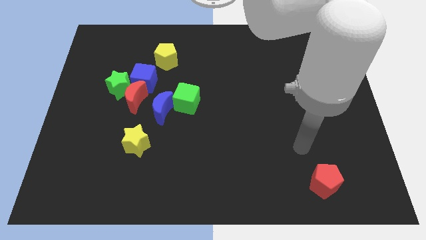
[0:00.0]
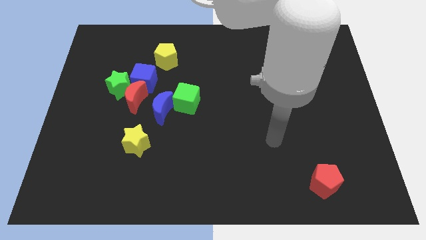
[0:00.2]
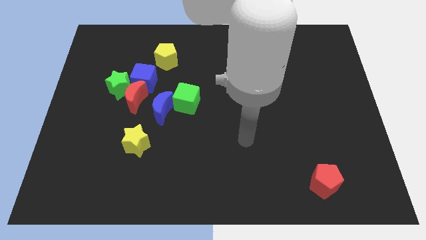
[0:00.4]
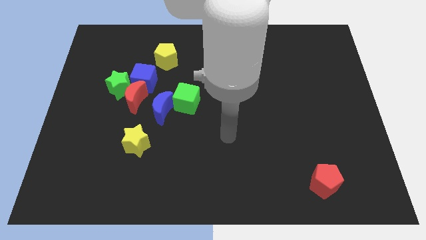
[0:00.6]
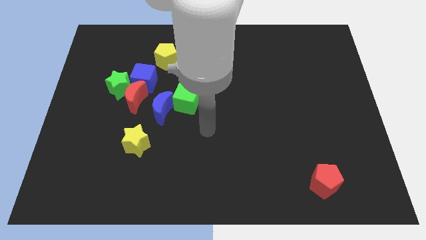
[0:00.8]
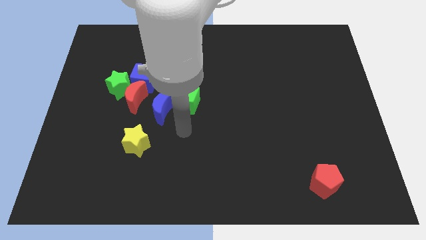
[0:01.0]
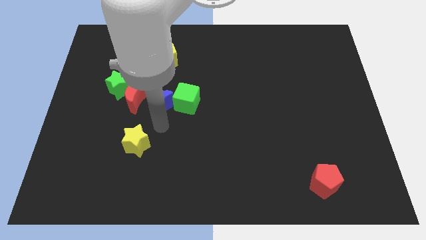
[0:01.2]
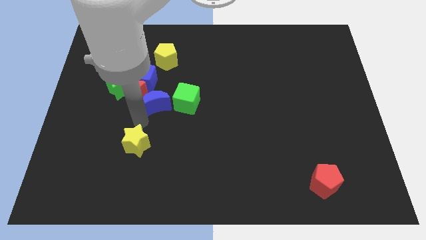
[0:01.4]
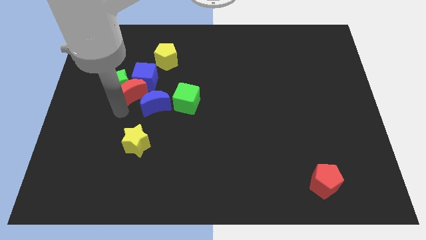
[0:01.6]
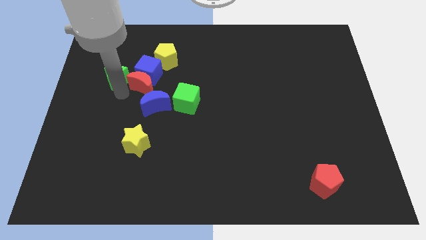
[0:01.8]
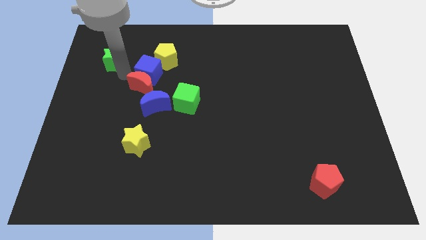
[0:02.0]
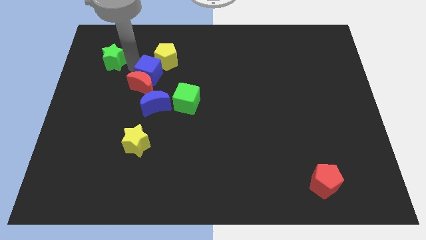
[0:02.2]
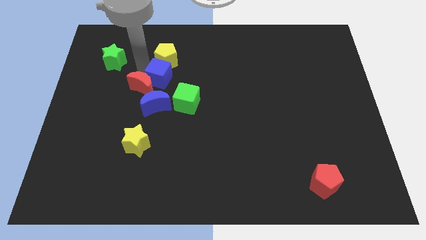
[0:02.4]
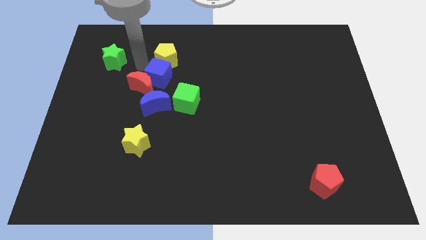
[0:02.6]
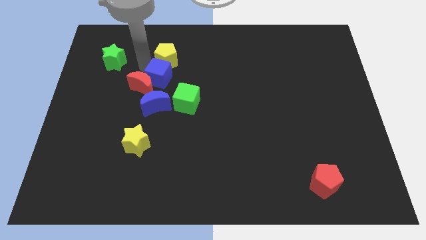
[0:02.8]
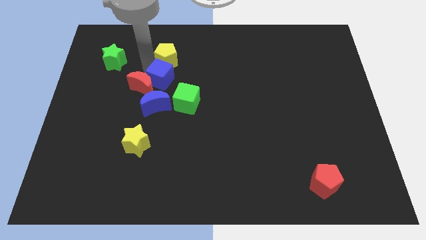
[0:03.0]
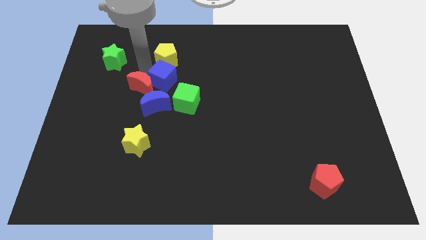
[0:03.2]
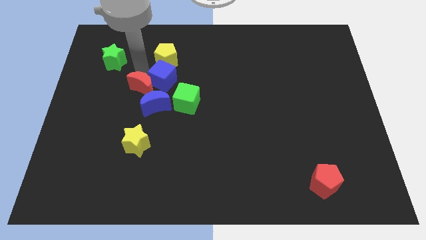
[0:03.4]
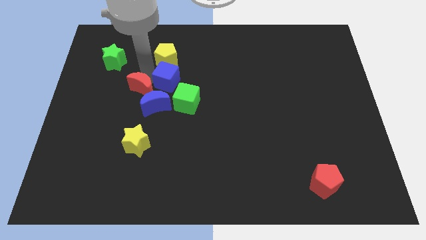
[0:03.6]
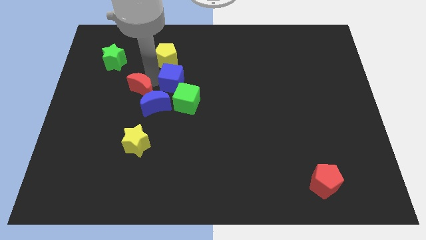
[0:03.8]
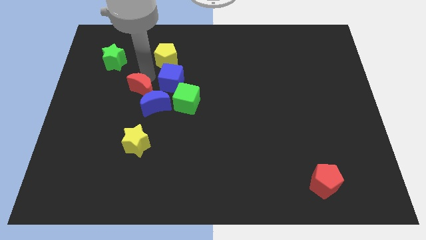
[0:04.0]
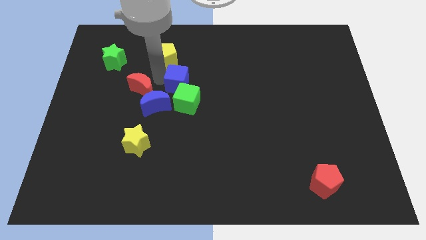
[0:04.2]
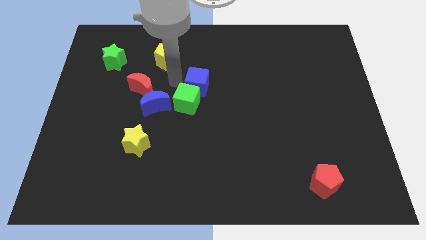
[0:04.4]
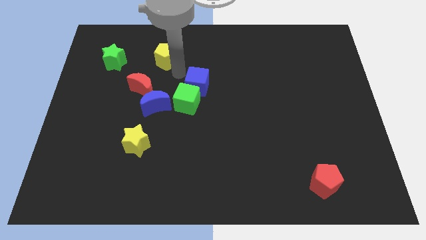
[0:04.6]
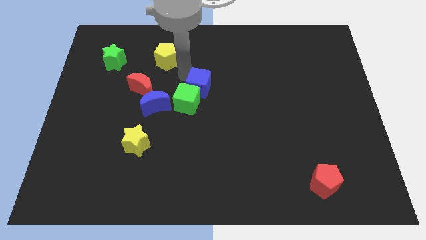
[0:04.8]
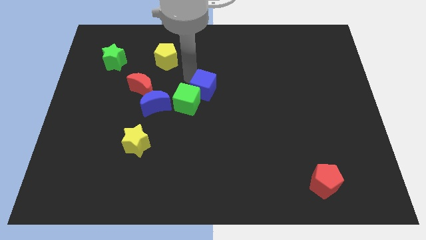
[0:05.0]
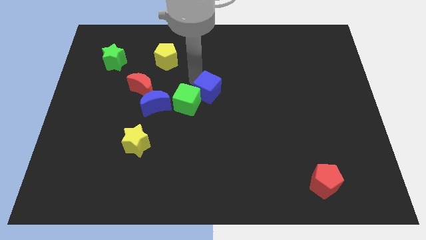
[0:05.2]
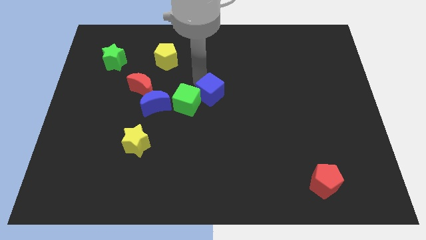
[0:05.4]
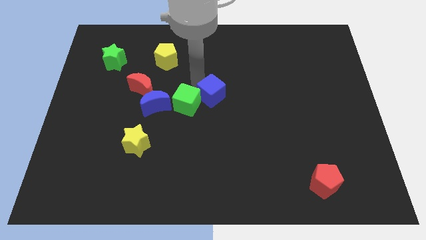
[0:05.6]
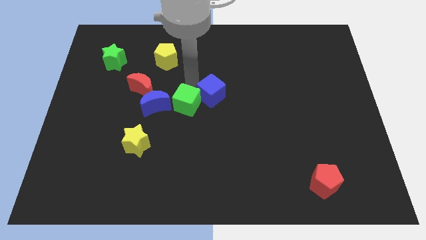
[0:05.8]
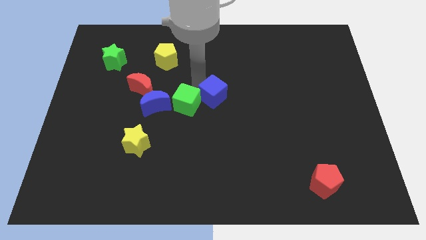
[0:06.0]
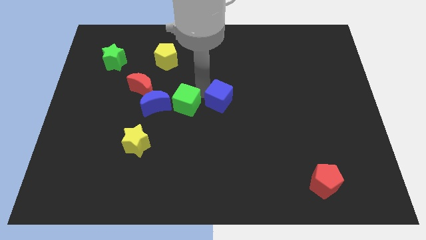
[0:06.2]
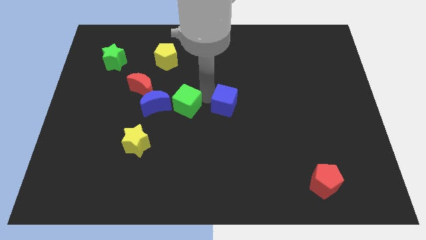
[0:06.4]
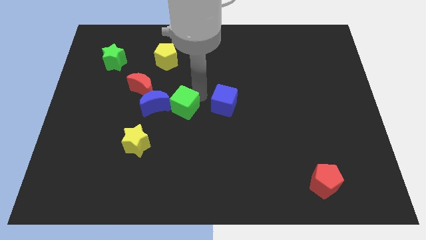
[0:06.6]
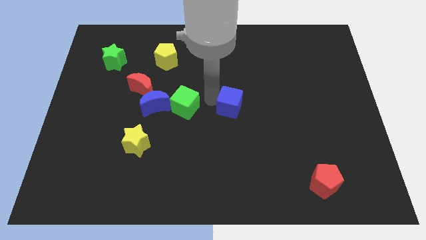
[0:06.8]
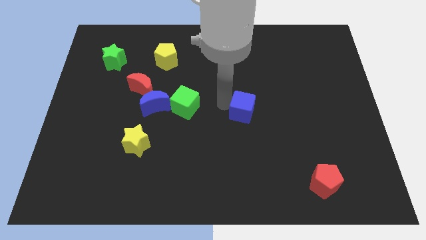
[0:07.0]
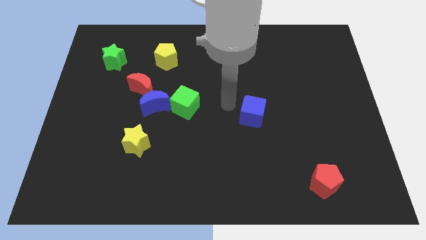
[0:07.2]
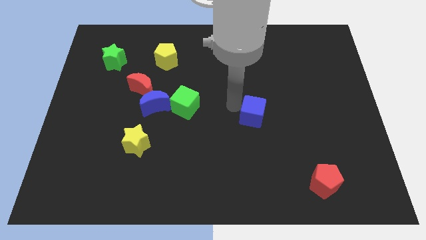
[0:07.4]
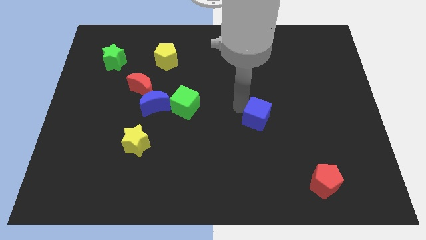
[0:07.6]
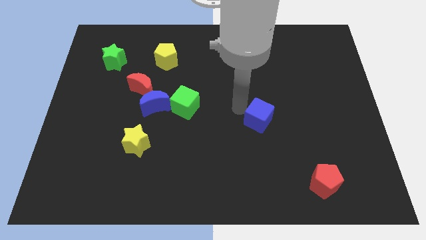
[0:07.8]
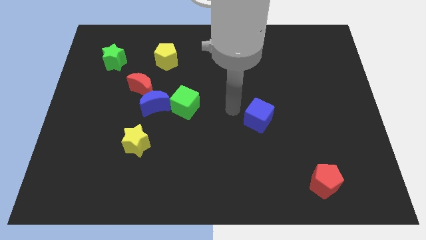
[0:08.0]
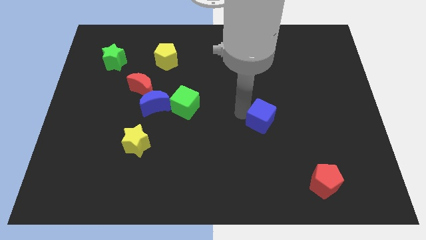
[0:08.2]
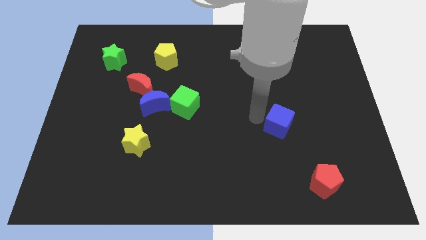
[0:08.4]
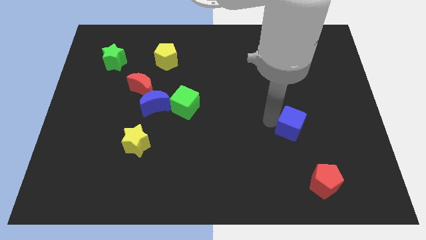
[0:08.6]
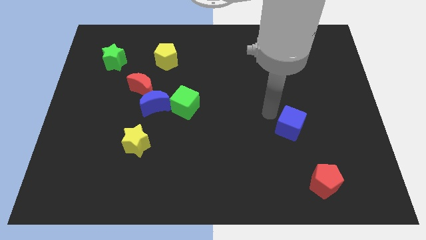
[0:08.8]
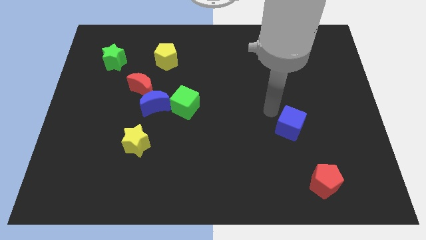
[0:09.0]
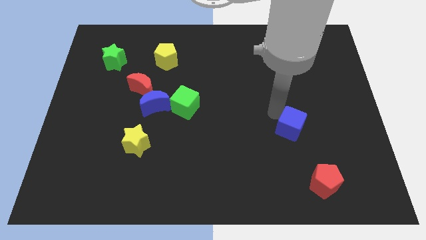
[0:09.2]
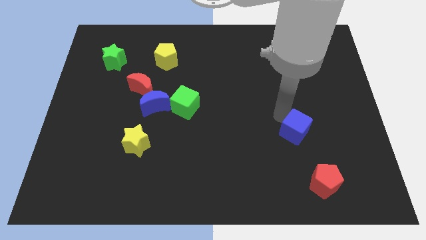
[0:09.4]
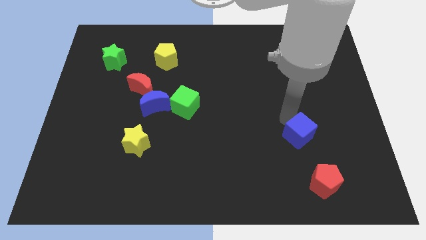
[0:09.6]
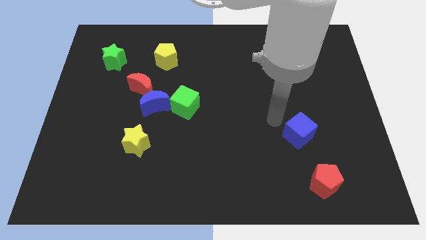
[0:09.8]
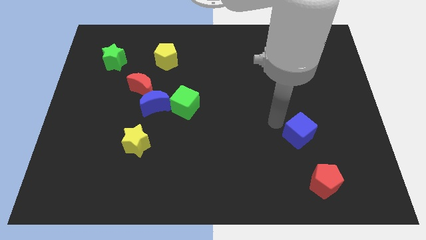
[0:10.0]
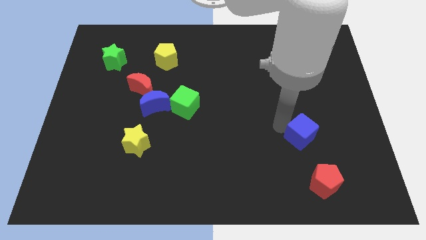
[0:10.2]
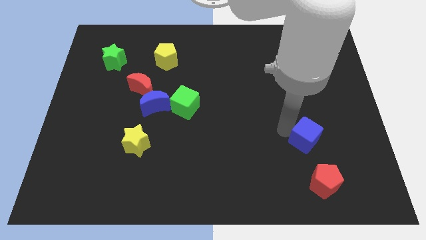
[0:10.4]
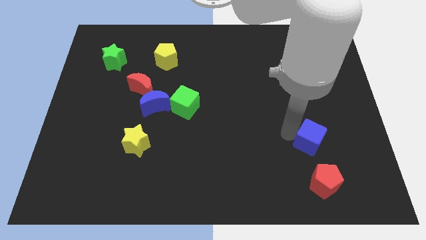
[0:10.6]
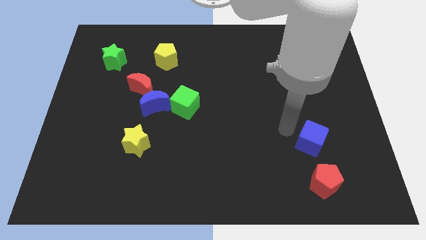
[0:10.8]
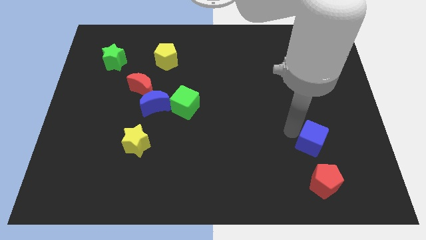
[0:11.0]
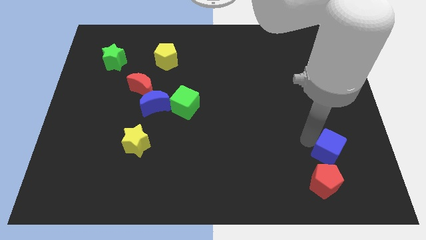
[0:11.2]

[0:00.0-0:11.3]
slide the blue cube to the top right side of the red pentagon

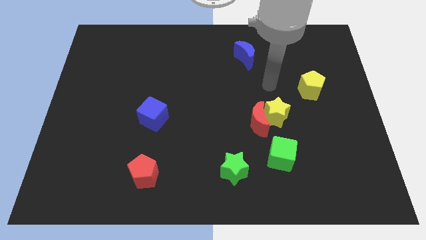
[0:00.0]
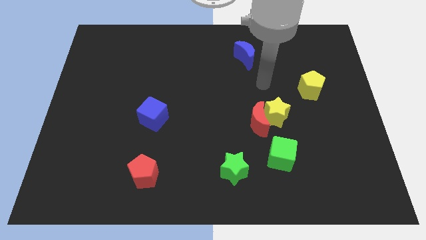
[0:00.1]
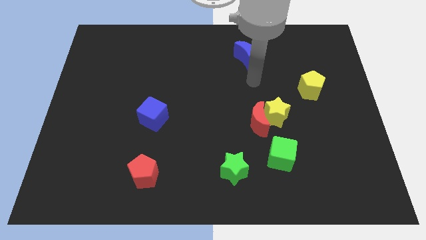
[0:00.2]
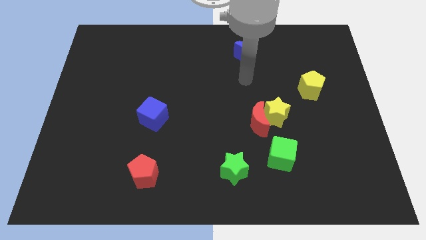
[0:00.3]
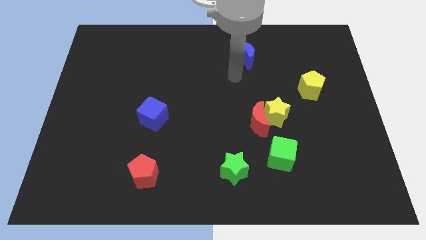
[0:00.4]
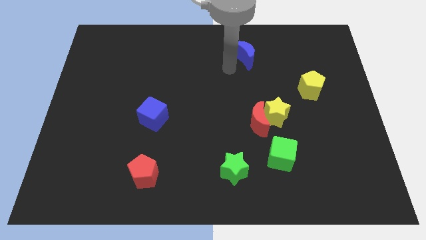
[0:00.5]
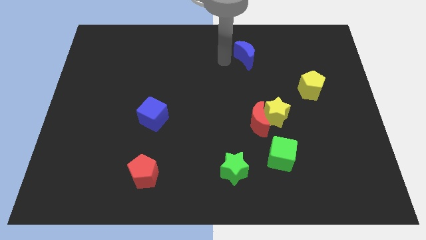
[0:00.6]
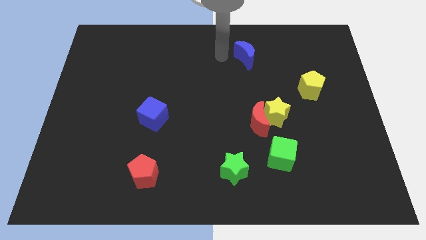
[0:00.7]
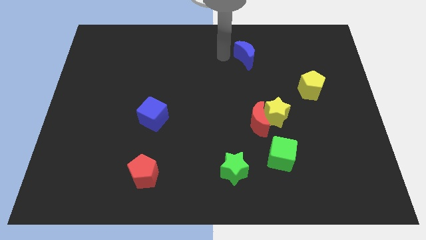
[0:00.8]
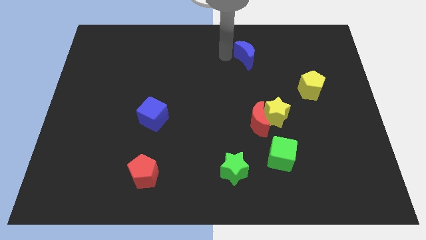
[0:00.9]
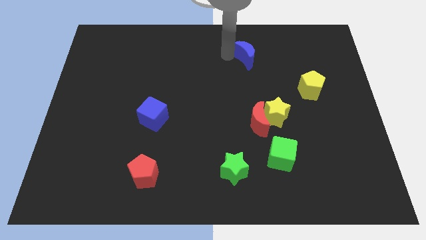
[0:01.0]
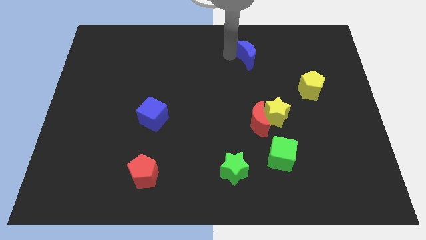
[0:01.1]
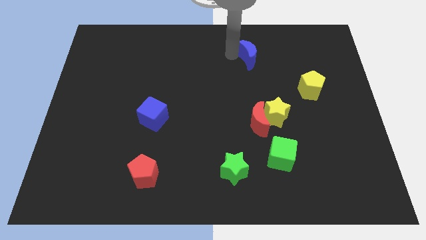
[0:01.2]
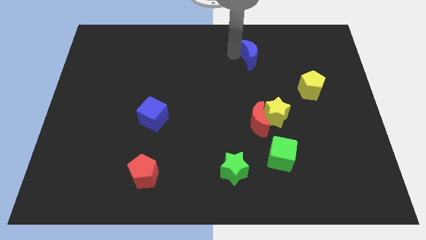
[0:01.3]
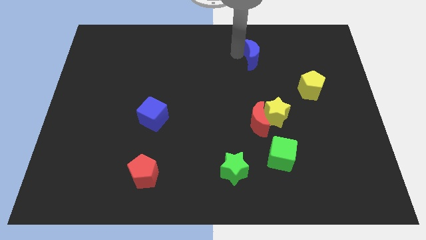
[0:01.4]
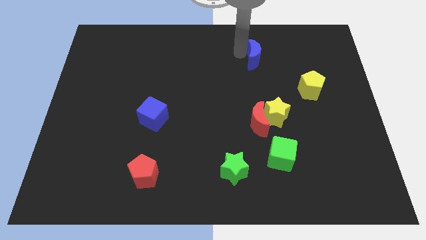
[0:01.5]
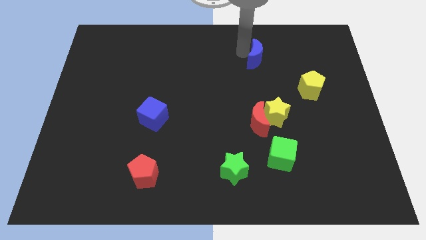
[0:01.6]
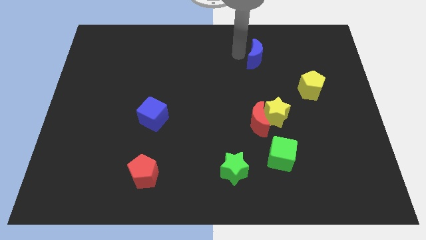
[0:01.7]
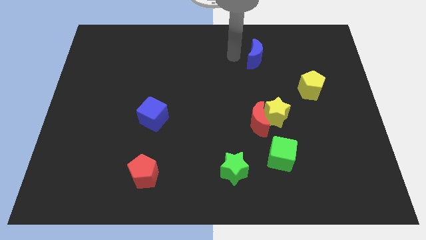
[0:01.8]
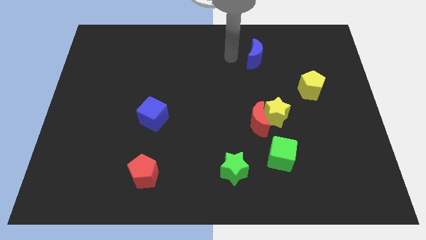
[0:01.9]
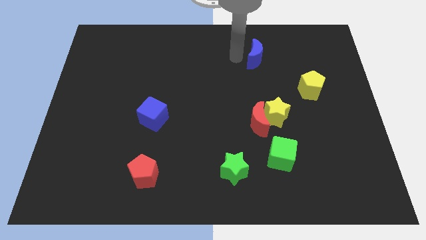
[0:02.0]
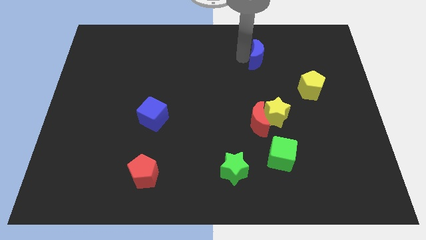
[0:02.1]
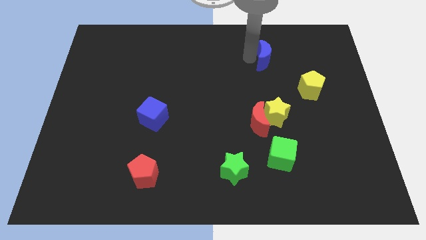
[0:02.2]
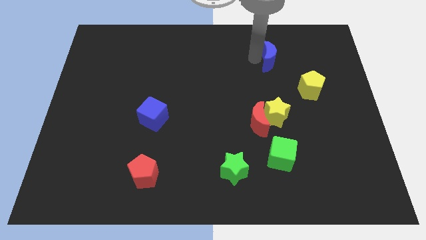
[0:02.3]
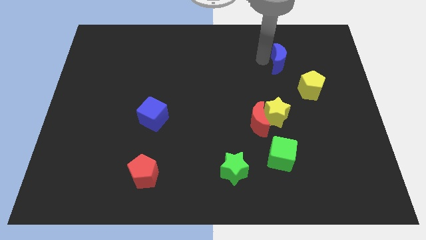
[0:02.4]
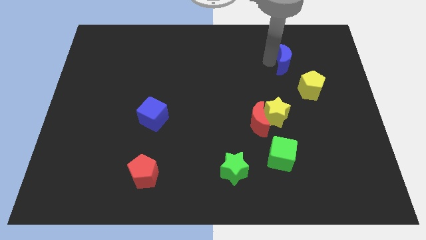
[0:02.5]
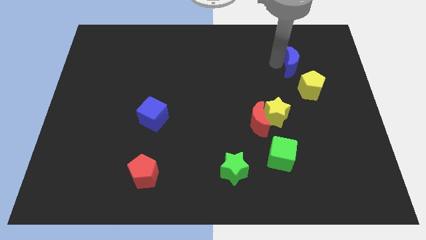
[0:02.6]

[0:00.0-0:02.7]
slide the blue moon above the yellow pentagon
